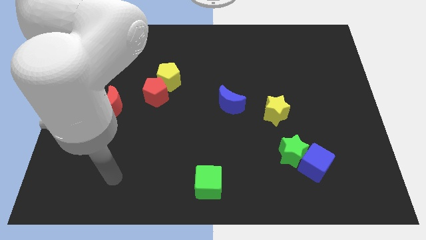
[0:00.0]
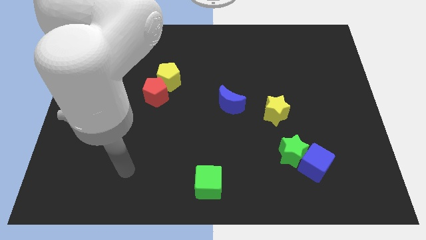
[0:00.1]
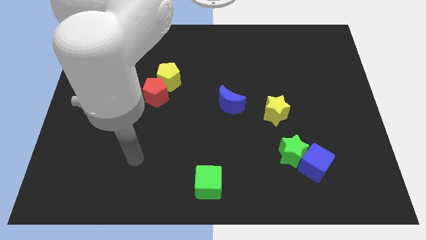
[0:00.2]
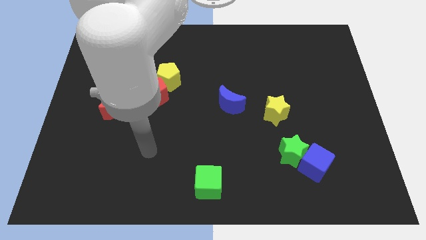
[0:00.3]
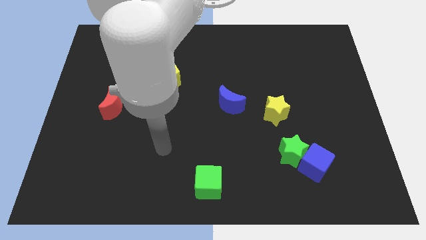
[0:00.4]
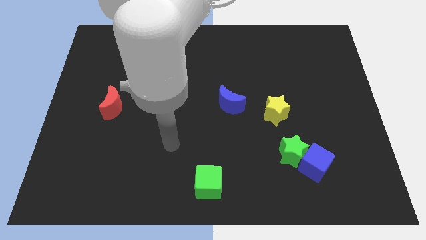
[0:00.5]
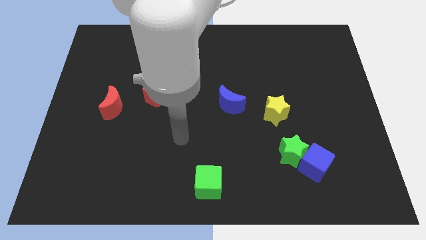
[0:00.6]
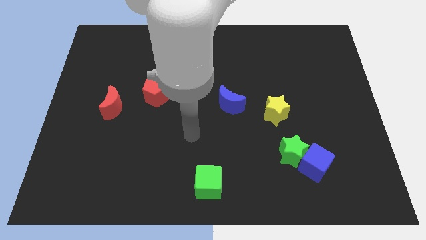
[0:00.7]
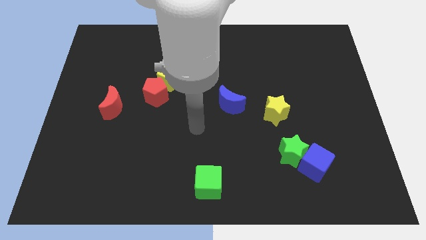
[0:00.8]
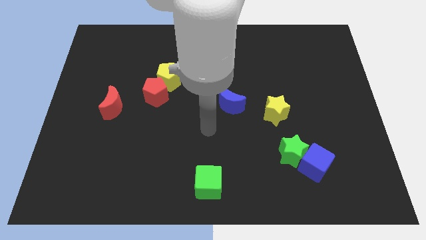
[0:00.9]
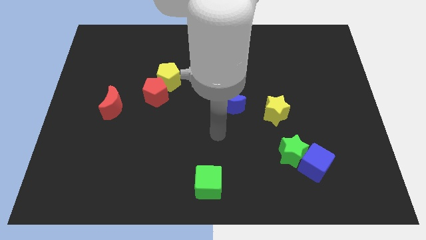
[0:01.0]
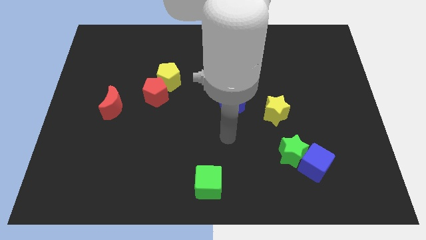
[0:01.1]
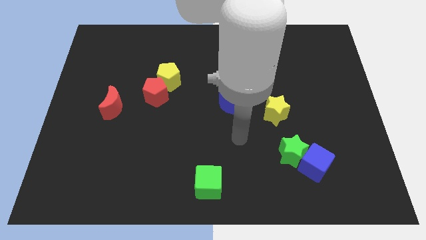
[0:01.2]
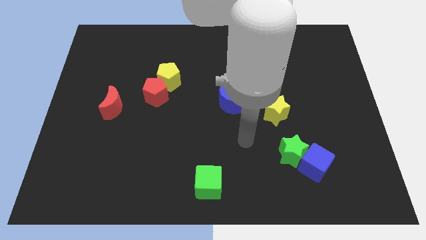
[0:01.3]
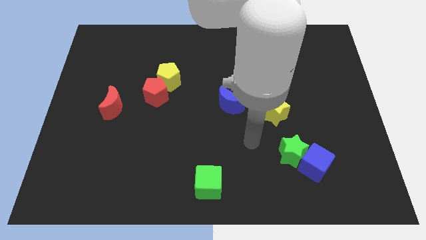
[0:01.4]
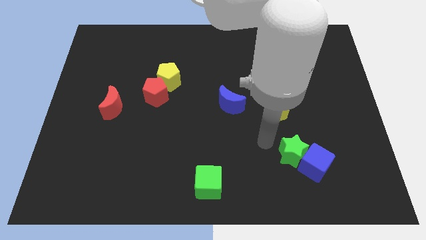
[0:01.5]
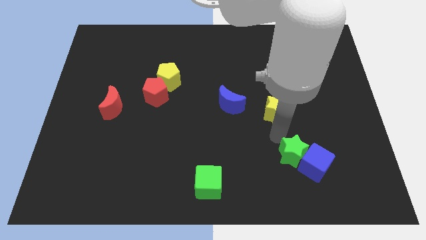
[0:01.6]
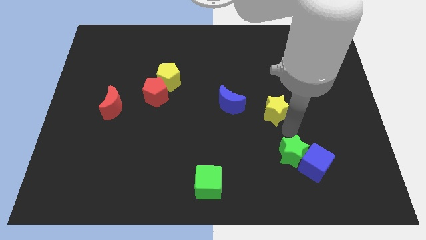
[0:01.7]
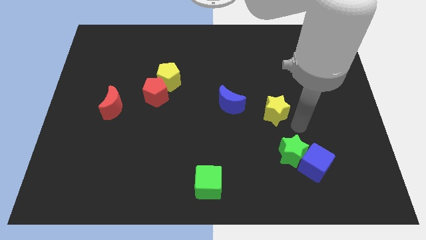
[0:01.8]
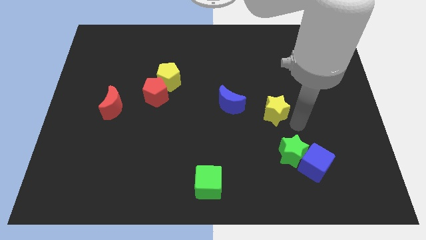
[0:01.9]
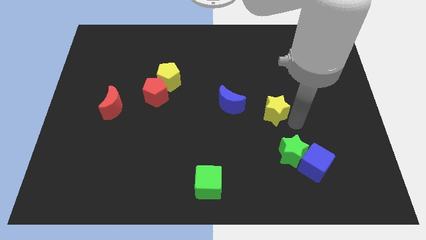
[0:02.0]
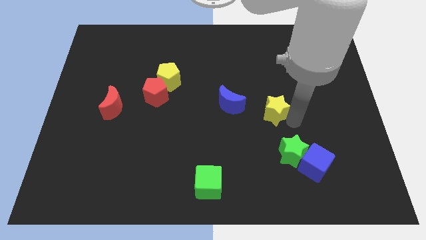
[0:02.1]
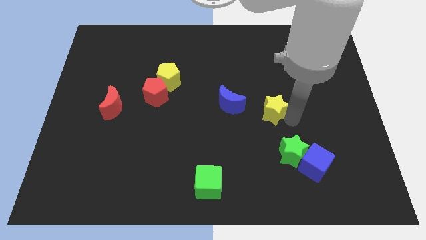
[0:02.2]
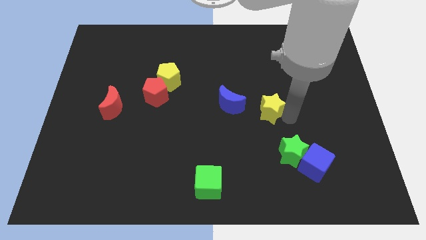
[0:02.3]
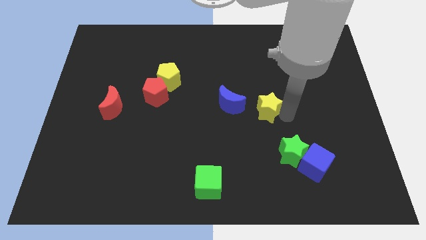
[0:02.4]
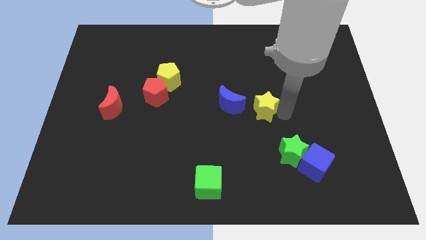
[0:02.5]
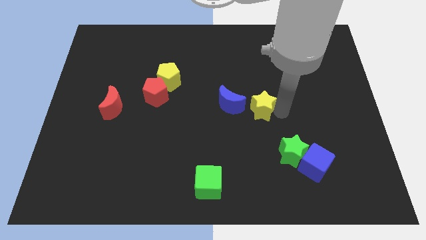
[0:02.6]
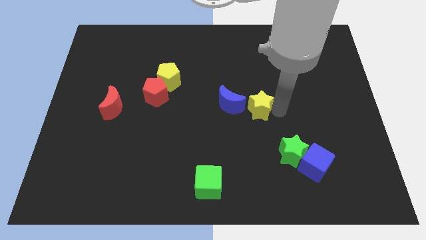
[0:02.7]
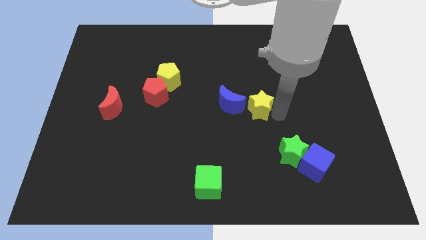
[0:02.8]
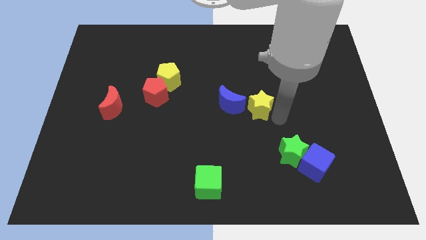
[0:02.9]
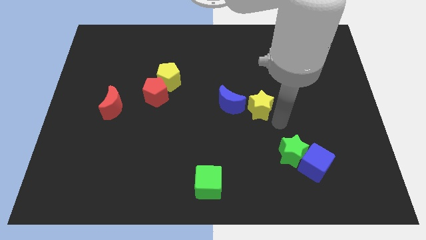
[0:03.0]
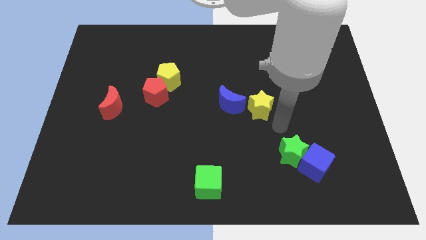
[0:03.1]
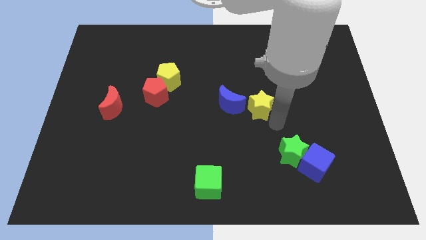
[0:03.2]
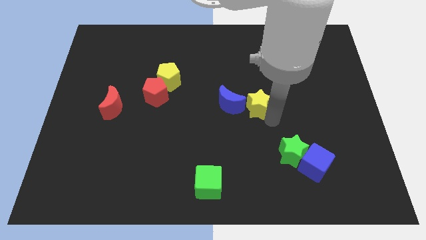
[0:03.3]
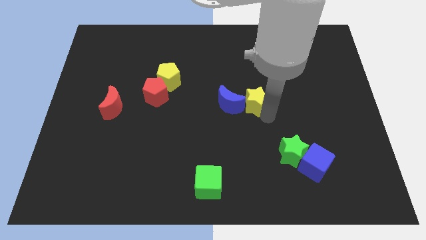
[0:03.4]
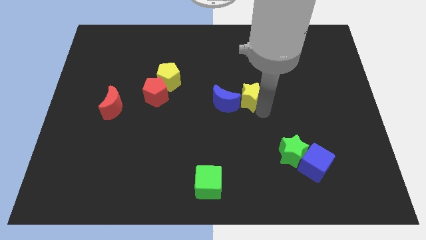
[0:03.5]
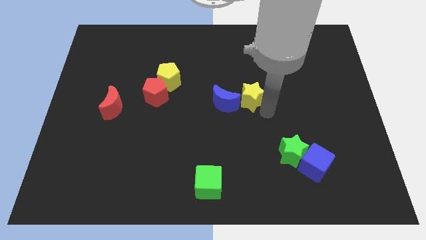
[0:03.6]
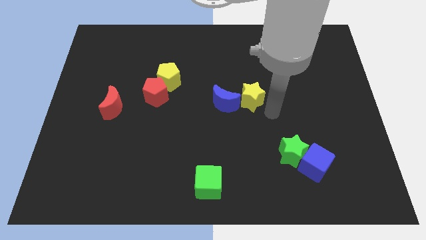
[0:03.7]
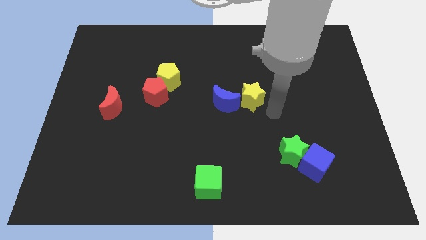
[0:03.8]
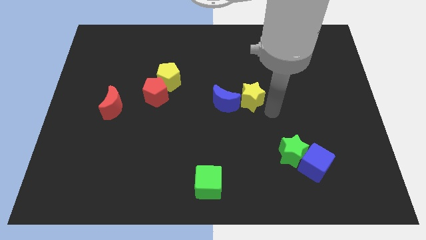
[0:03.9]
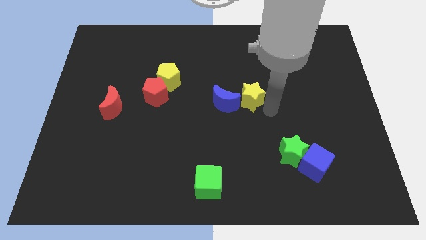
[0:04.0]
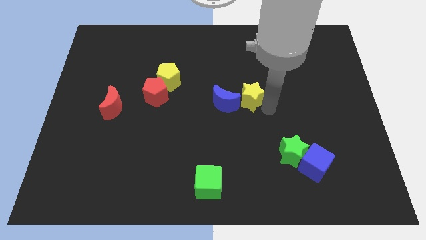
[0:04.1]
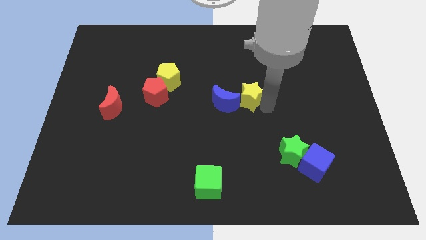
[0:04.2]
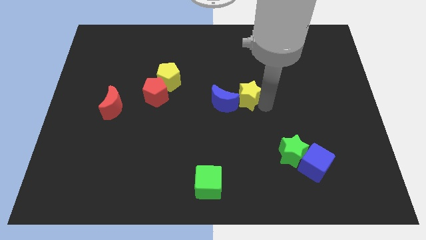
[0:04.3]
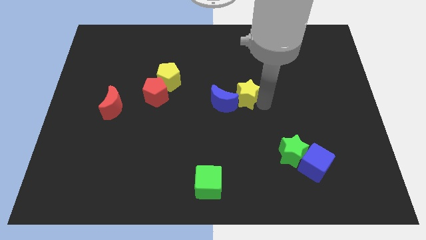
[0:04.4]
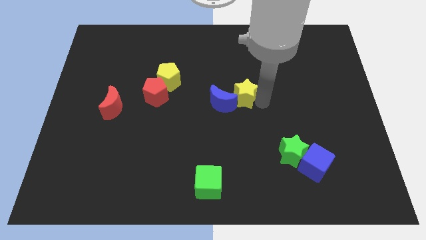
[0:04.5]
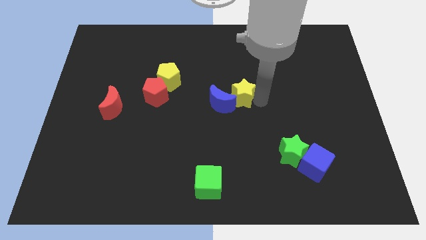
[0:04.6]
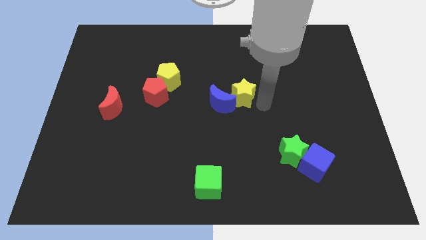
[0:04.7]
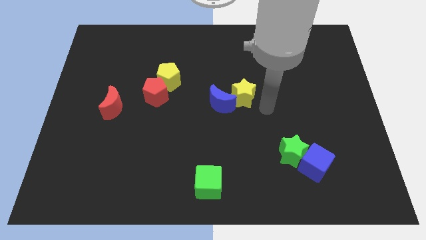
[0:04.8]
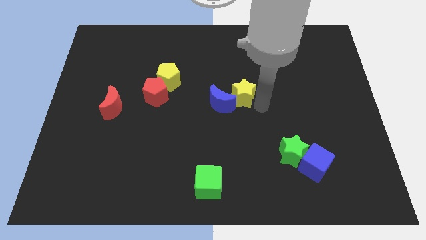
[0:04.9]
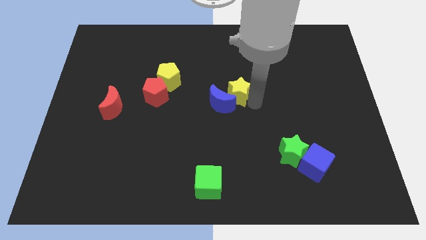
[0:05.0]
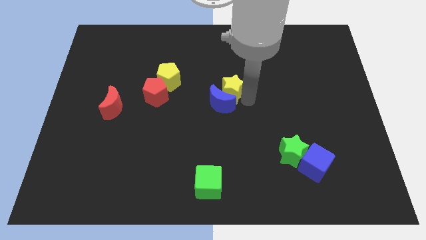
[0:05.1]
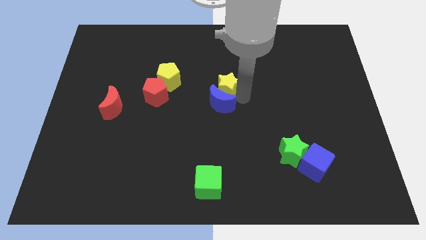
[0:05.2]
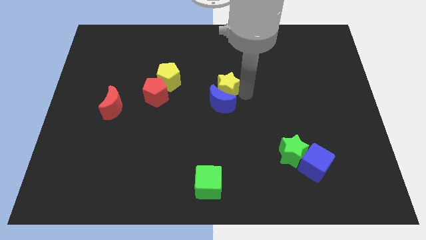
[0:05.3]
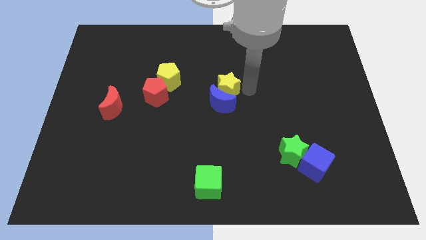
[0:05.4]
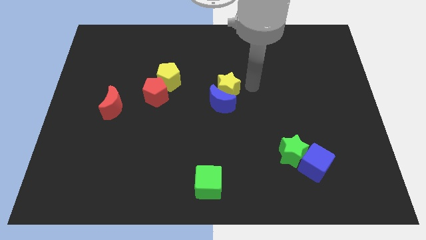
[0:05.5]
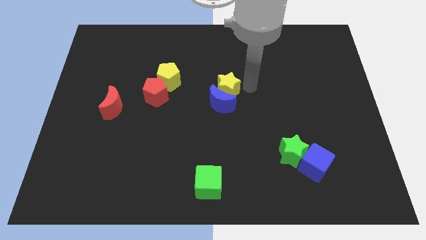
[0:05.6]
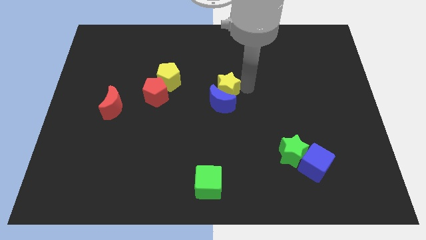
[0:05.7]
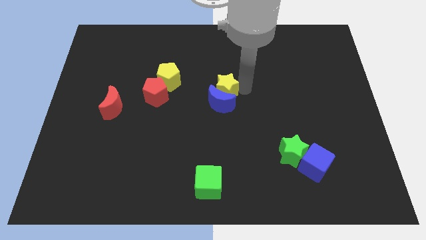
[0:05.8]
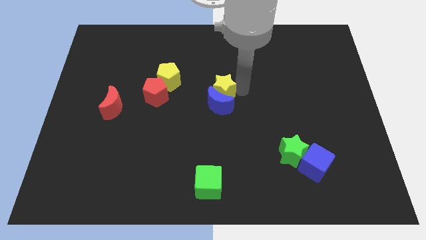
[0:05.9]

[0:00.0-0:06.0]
slide the yellow star to the right of the red pentagon

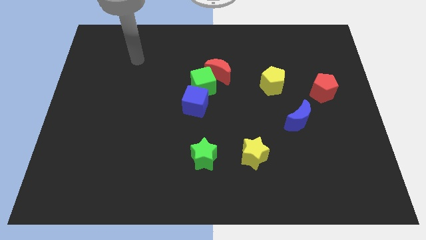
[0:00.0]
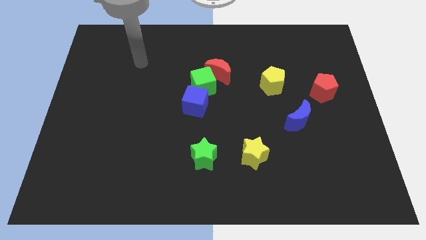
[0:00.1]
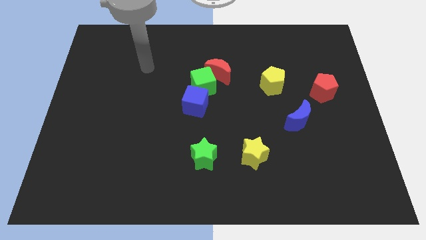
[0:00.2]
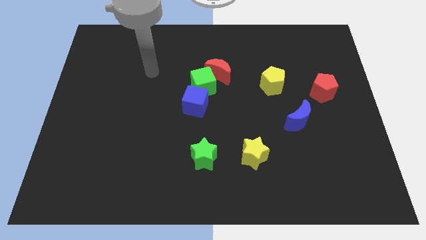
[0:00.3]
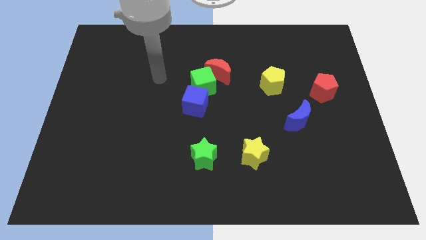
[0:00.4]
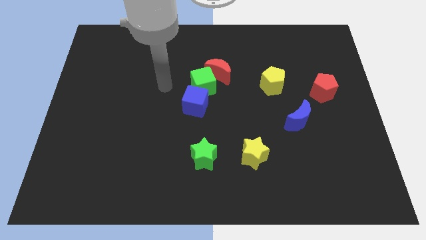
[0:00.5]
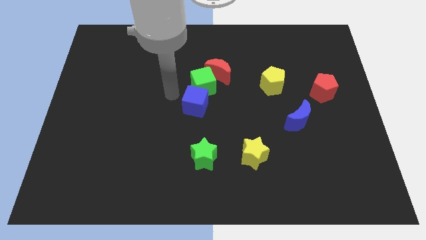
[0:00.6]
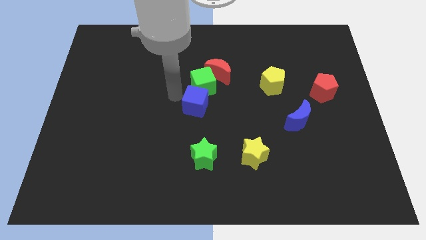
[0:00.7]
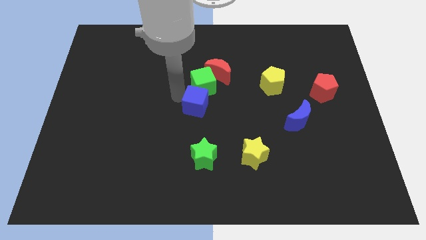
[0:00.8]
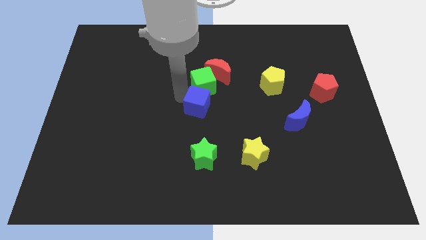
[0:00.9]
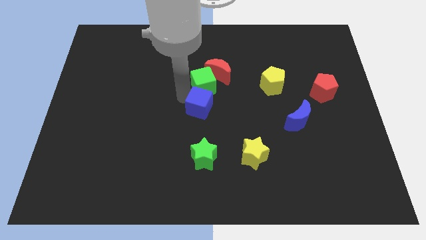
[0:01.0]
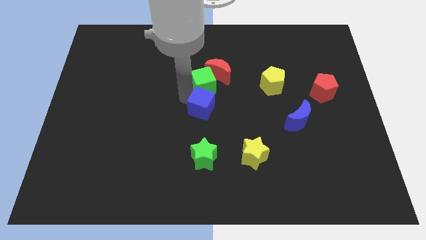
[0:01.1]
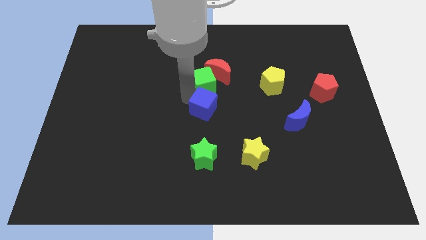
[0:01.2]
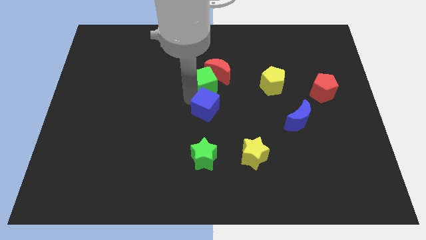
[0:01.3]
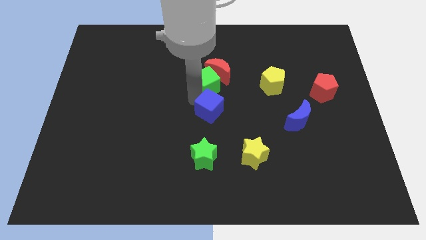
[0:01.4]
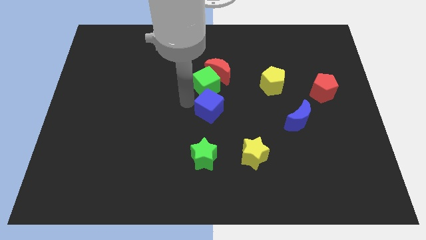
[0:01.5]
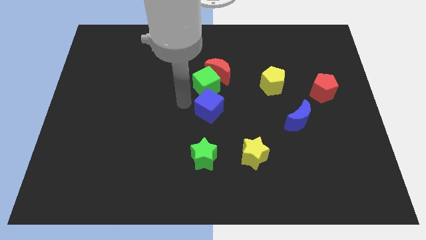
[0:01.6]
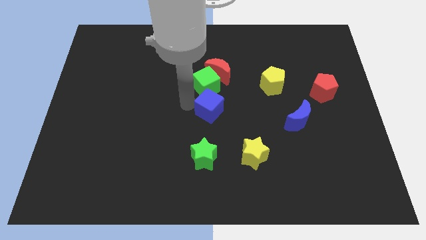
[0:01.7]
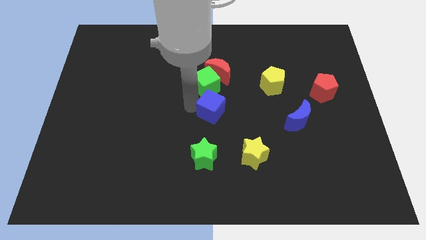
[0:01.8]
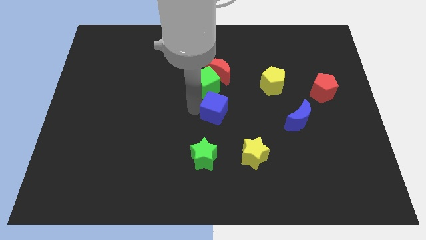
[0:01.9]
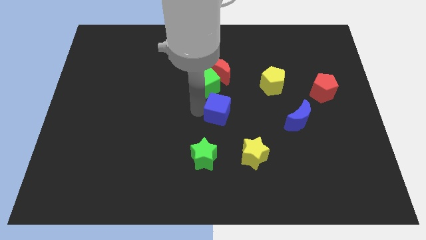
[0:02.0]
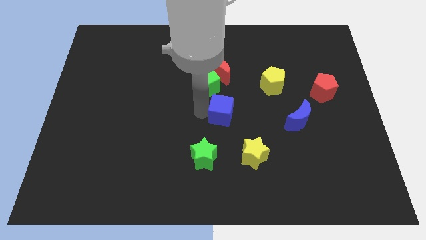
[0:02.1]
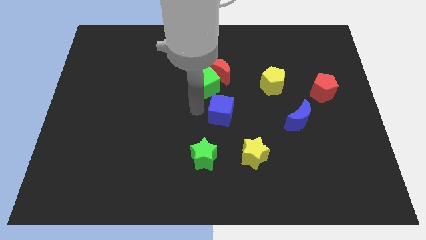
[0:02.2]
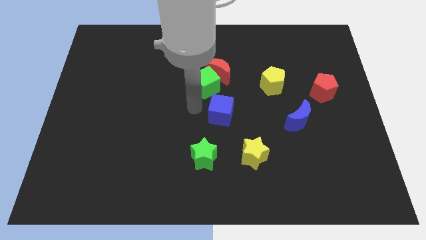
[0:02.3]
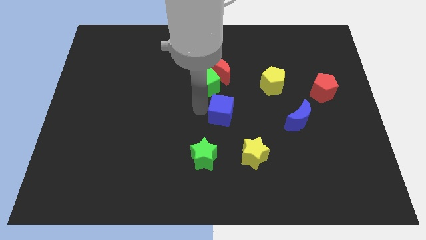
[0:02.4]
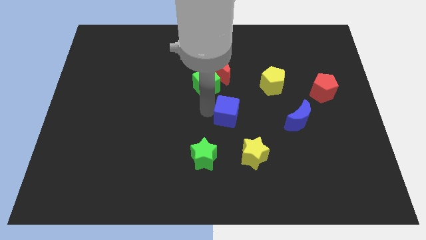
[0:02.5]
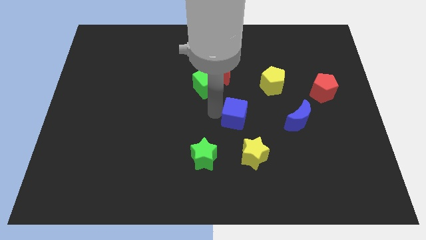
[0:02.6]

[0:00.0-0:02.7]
push the blue cube just left of the blue moon
